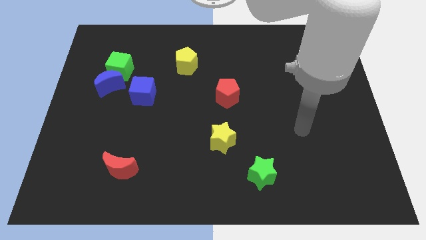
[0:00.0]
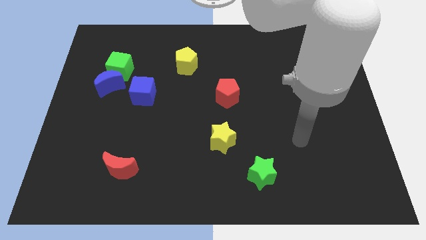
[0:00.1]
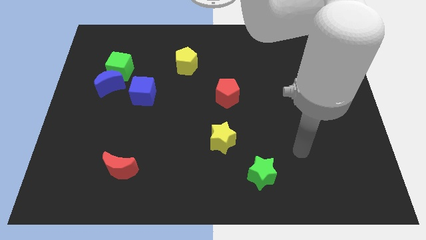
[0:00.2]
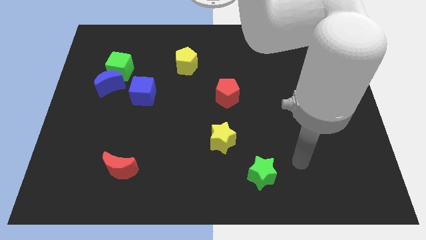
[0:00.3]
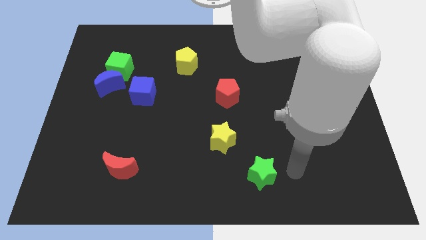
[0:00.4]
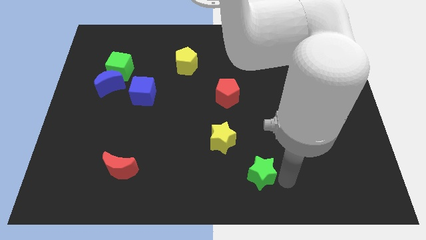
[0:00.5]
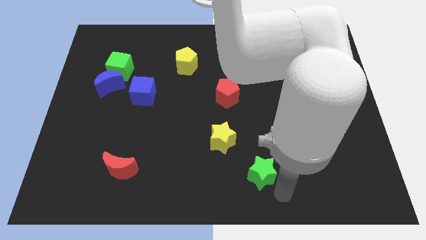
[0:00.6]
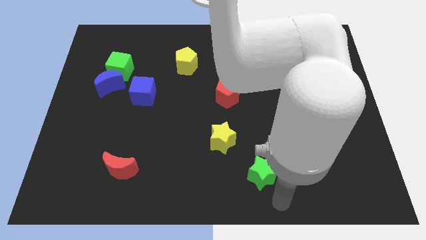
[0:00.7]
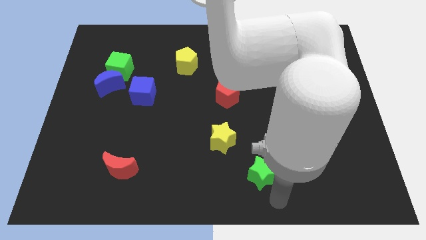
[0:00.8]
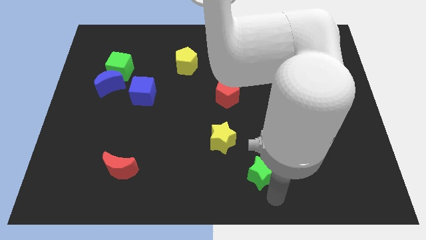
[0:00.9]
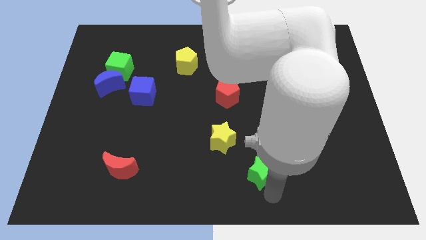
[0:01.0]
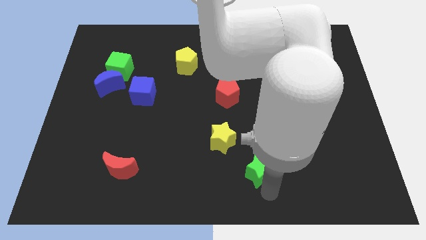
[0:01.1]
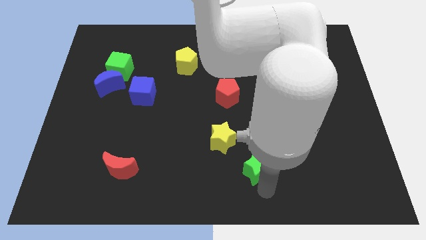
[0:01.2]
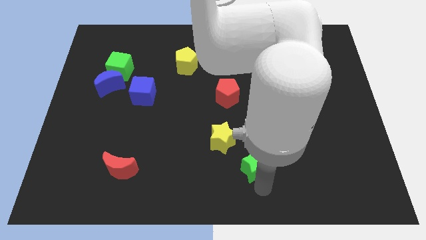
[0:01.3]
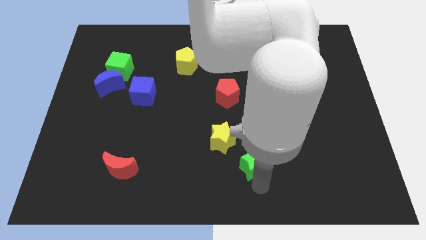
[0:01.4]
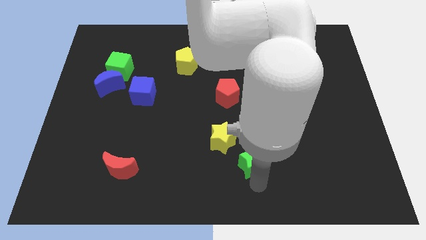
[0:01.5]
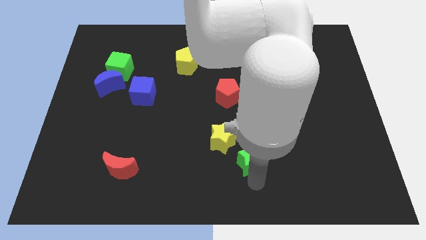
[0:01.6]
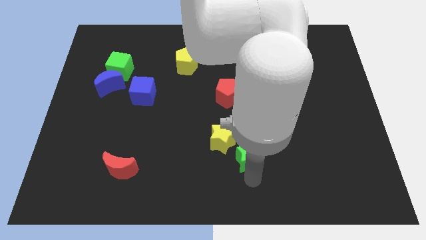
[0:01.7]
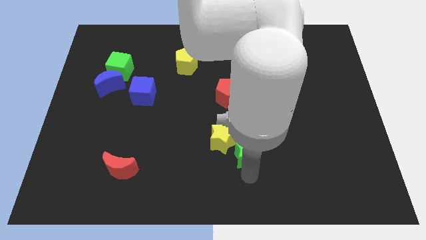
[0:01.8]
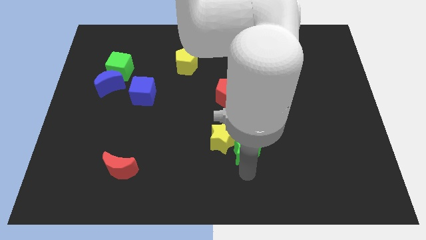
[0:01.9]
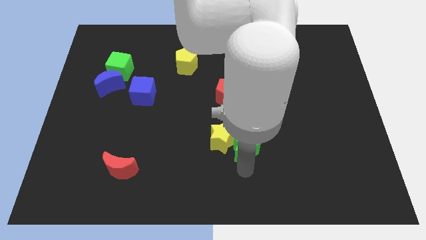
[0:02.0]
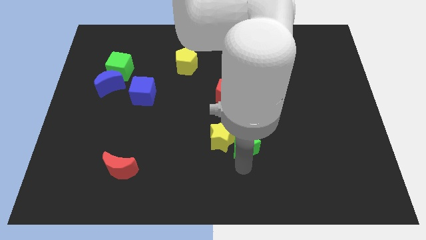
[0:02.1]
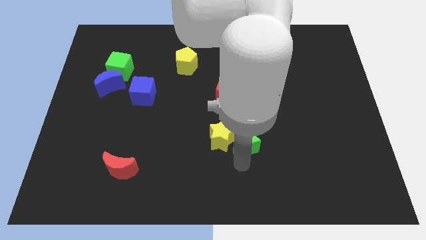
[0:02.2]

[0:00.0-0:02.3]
slightly move the green star up and then left

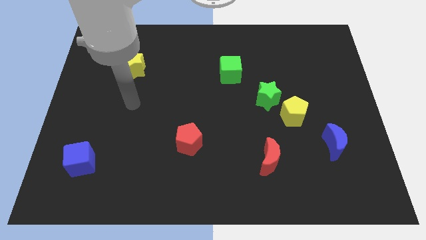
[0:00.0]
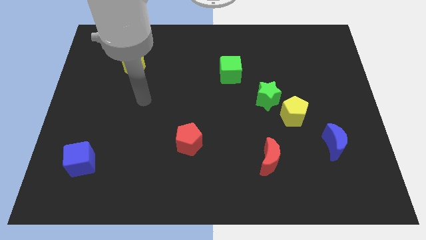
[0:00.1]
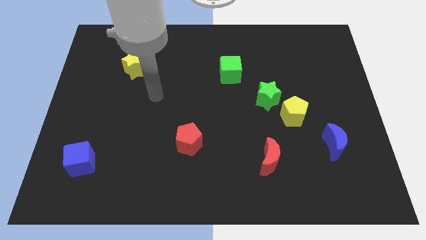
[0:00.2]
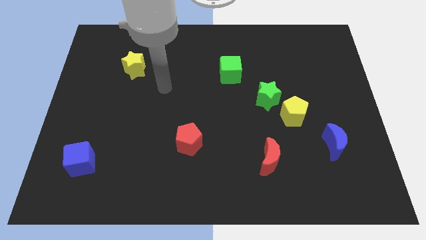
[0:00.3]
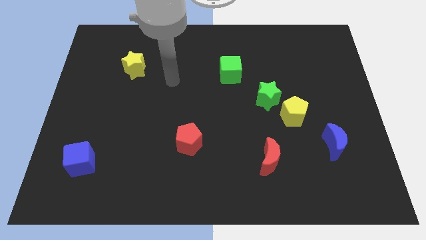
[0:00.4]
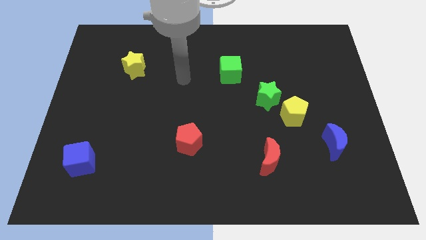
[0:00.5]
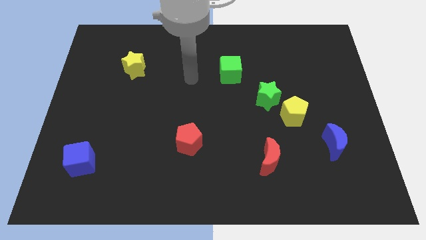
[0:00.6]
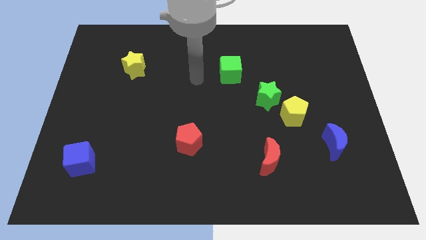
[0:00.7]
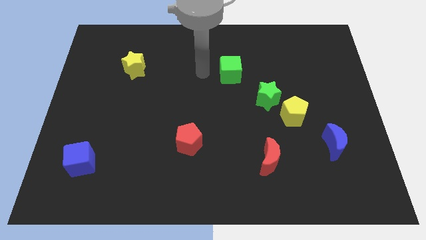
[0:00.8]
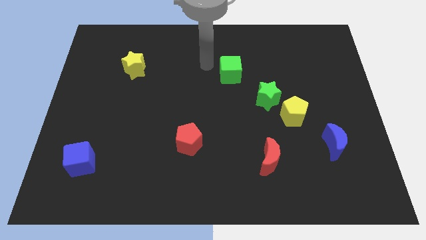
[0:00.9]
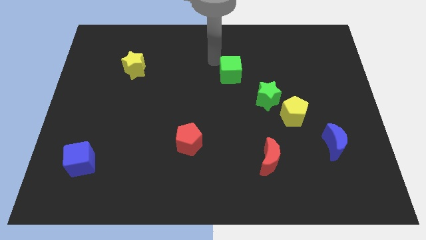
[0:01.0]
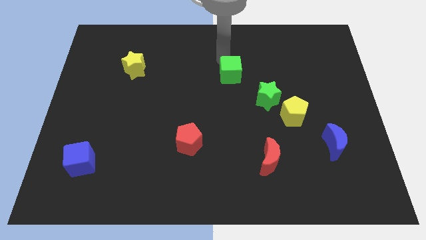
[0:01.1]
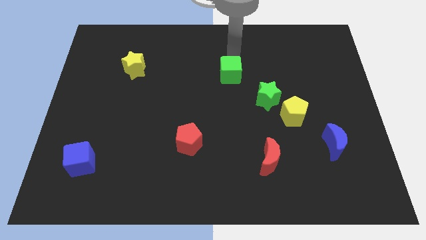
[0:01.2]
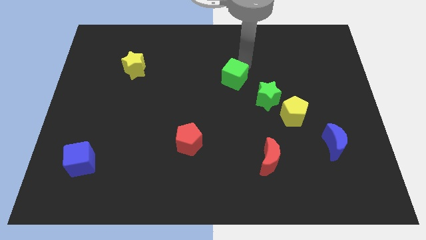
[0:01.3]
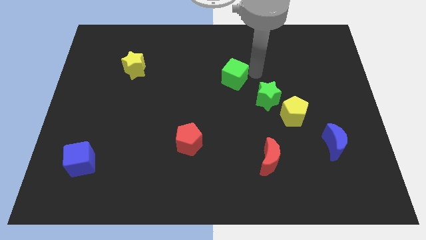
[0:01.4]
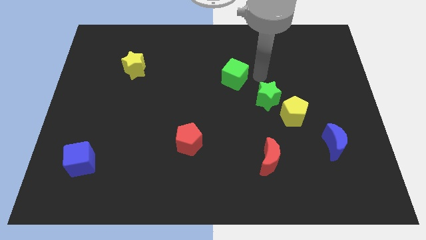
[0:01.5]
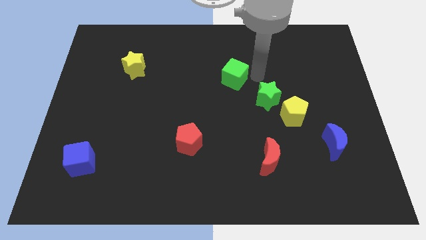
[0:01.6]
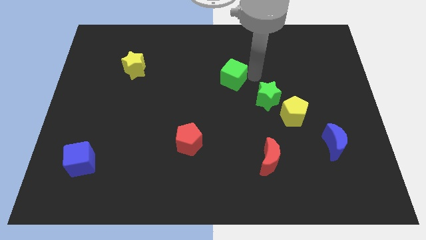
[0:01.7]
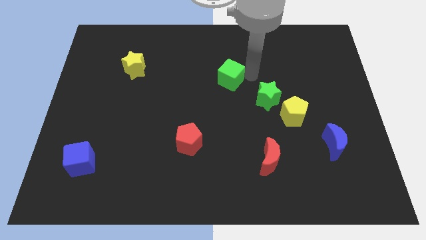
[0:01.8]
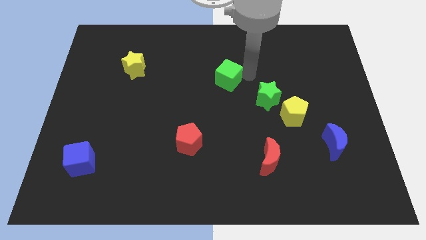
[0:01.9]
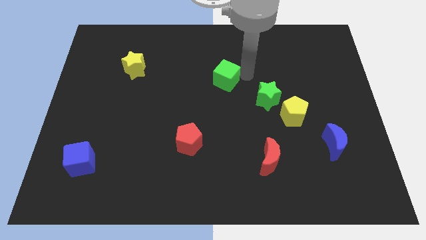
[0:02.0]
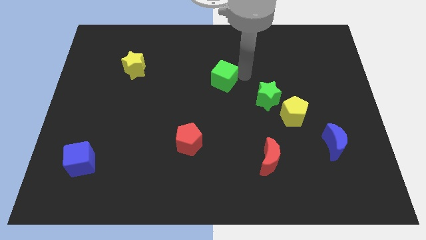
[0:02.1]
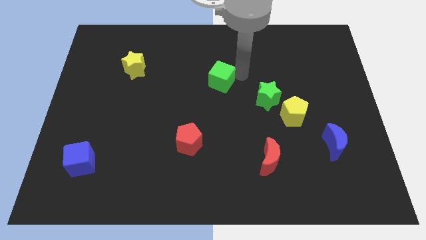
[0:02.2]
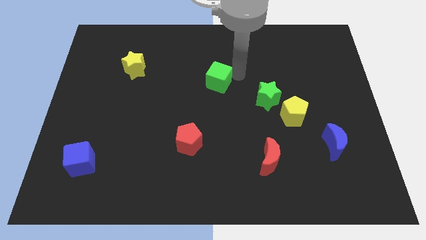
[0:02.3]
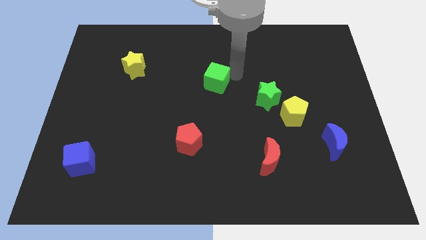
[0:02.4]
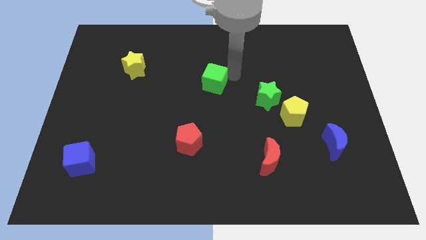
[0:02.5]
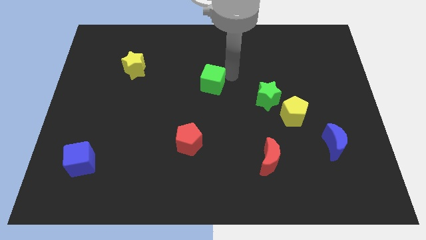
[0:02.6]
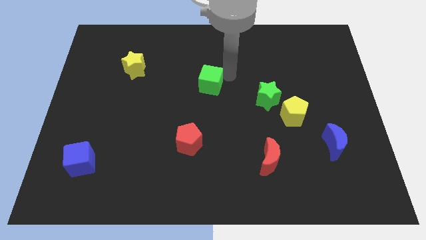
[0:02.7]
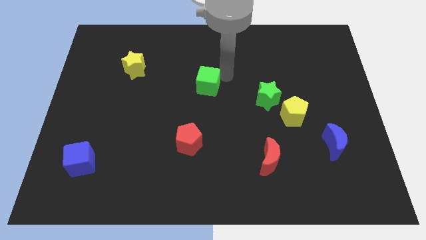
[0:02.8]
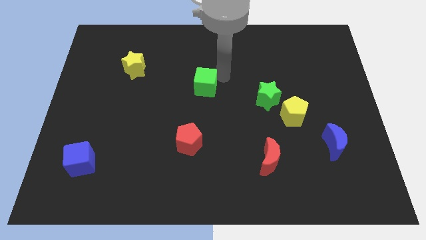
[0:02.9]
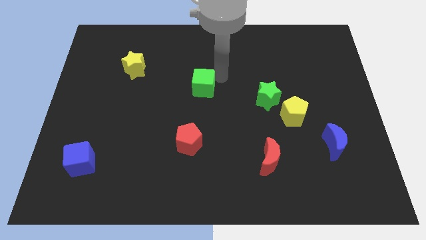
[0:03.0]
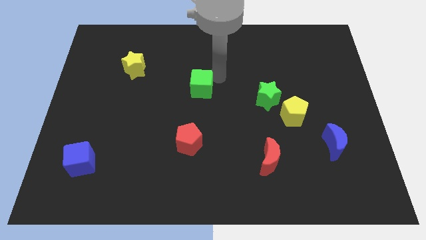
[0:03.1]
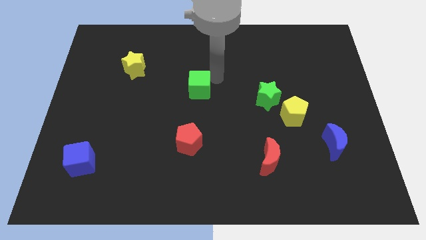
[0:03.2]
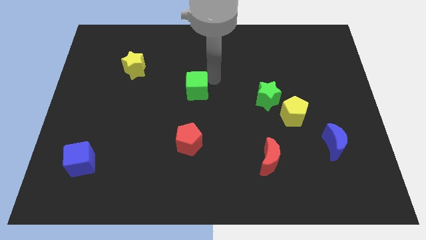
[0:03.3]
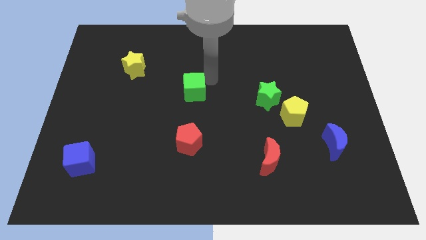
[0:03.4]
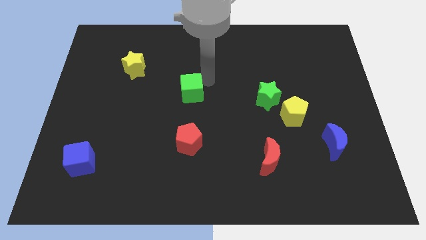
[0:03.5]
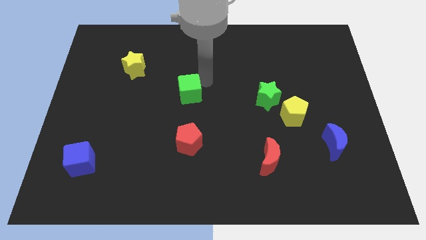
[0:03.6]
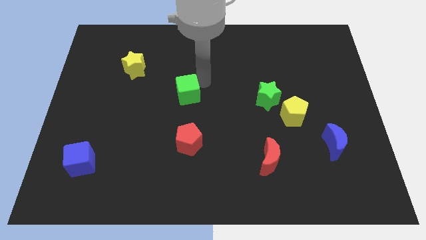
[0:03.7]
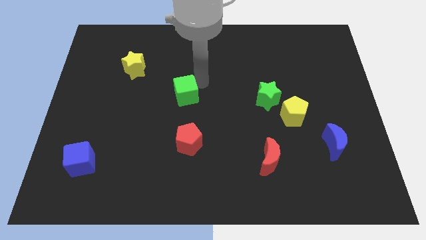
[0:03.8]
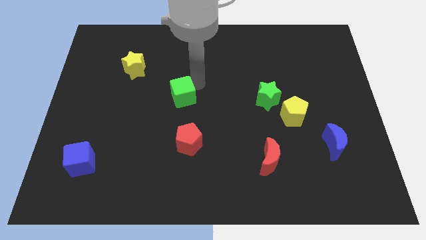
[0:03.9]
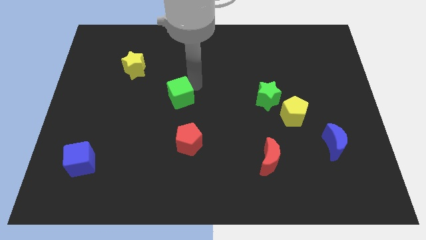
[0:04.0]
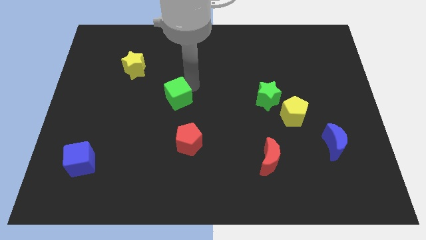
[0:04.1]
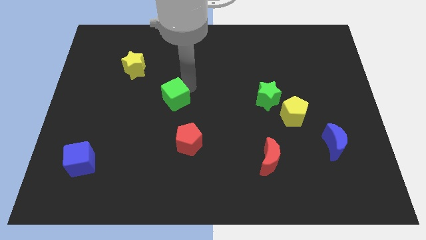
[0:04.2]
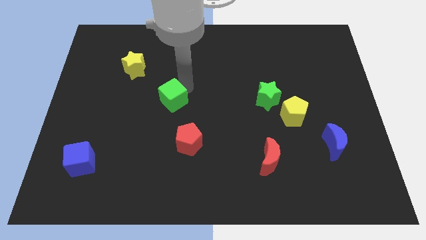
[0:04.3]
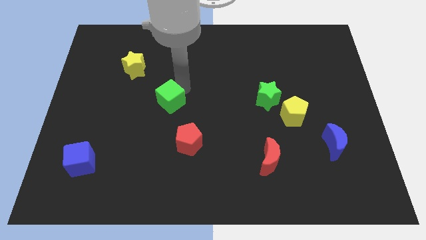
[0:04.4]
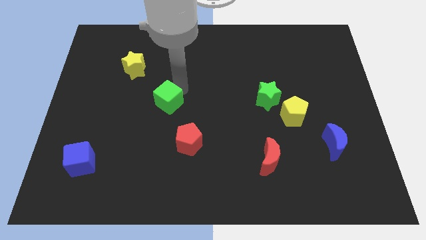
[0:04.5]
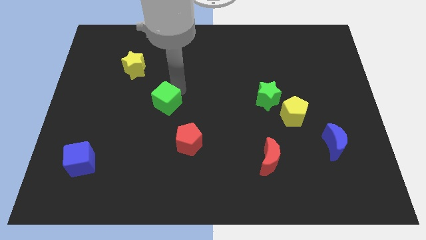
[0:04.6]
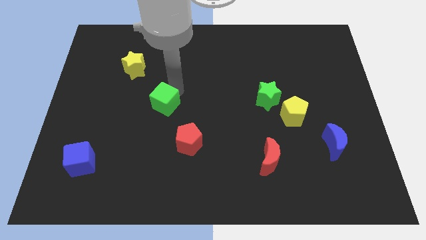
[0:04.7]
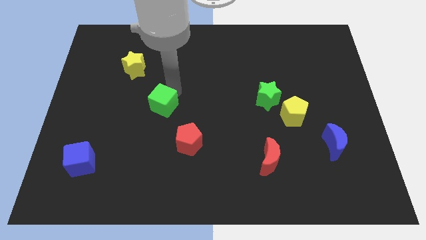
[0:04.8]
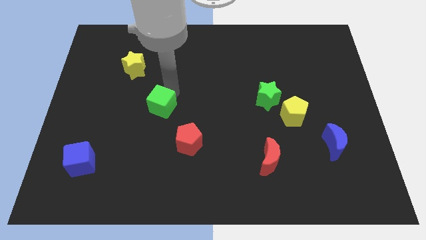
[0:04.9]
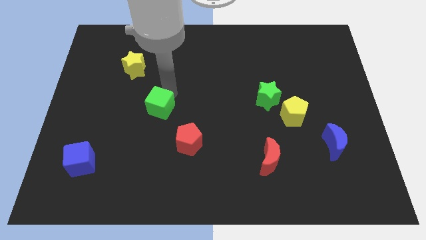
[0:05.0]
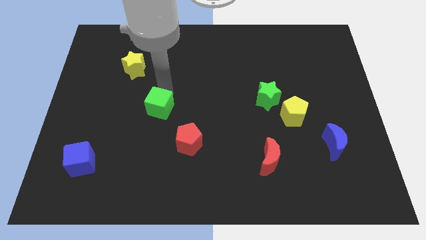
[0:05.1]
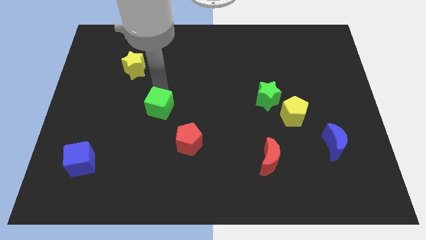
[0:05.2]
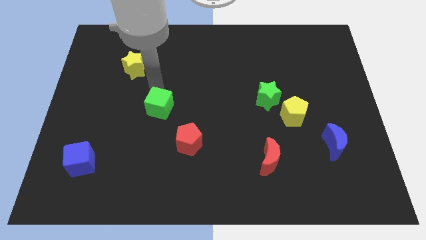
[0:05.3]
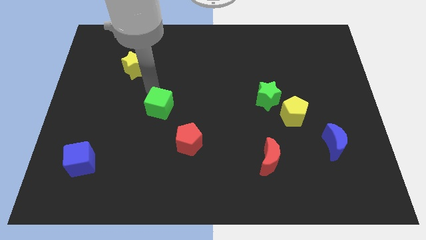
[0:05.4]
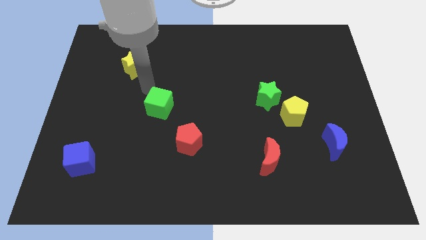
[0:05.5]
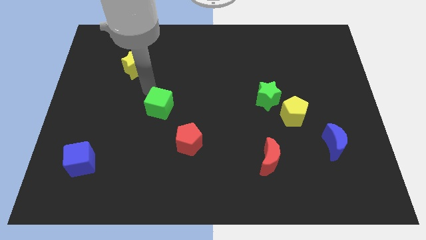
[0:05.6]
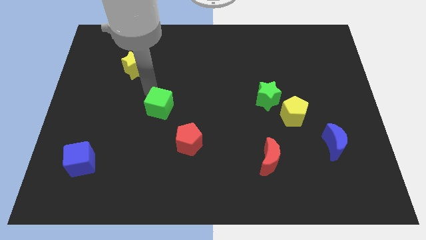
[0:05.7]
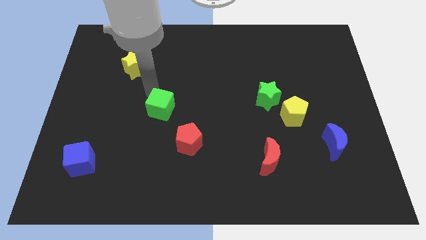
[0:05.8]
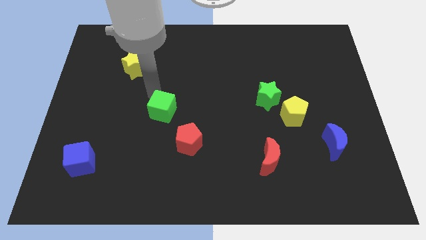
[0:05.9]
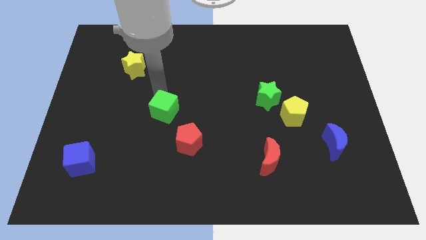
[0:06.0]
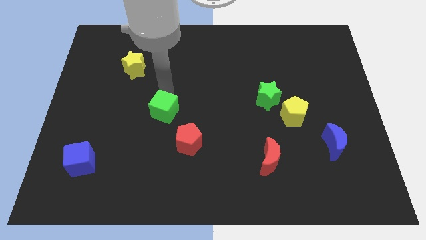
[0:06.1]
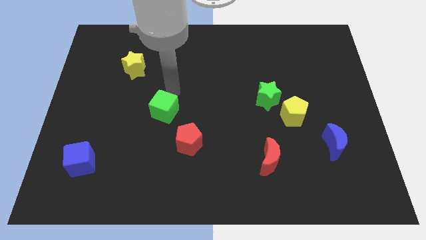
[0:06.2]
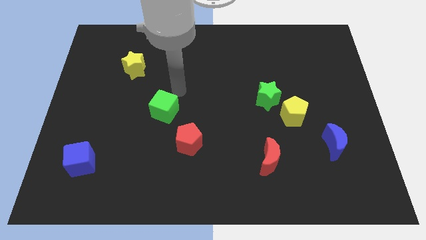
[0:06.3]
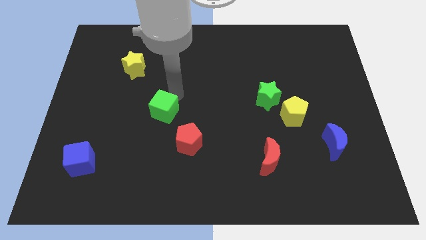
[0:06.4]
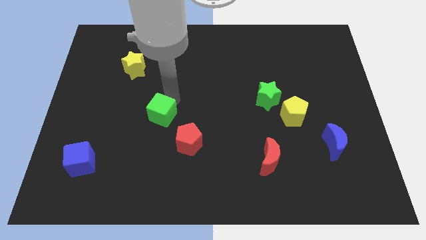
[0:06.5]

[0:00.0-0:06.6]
move the green cube downwards and then left
